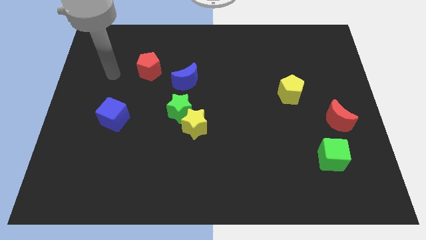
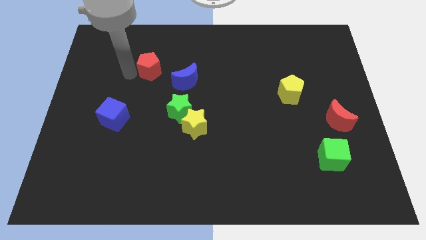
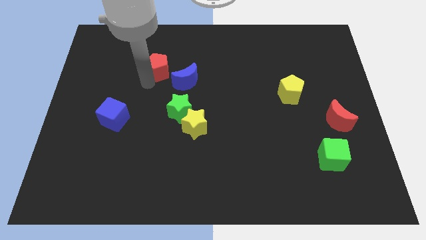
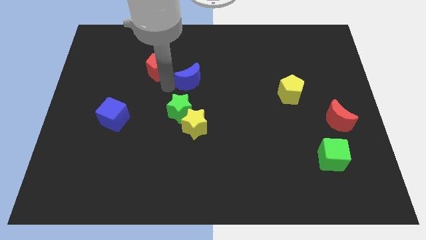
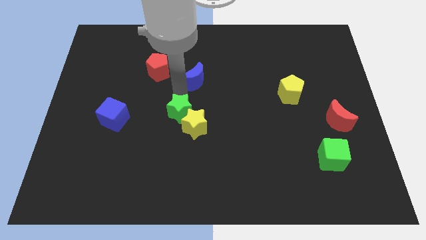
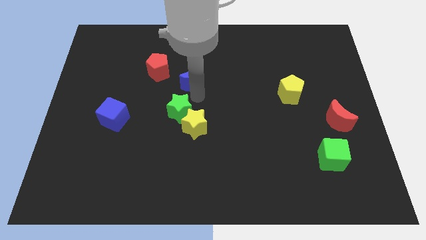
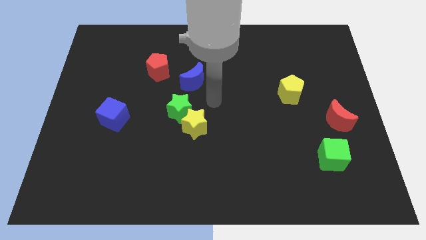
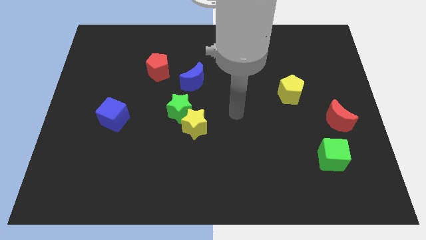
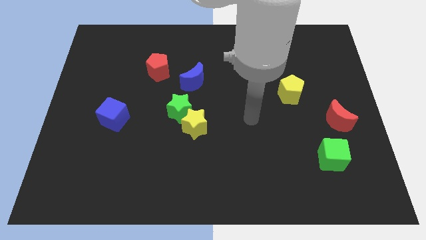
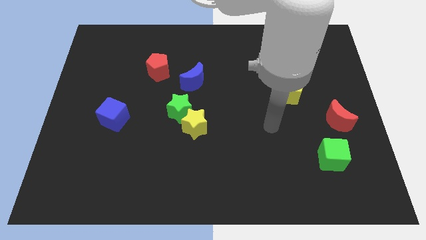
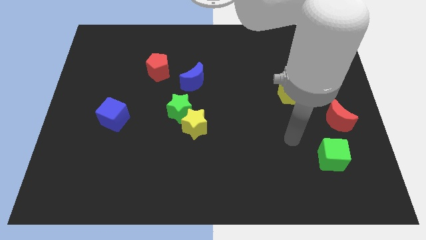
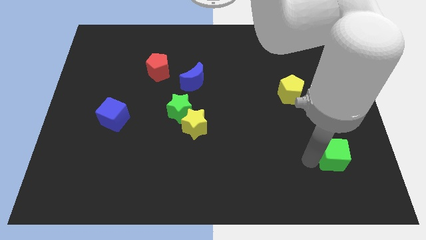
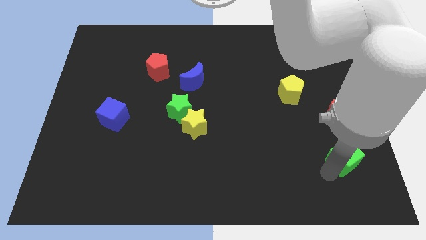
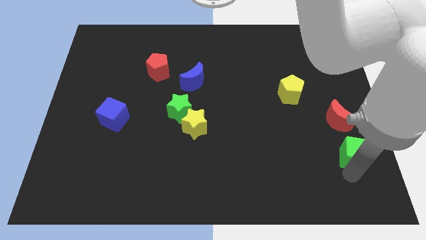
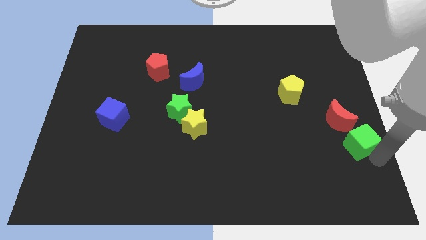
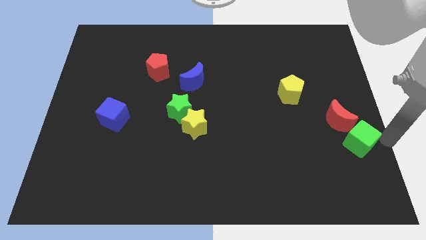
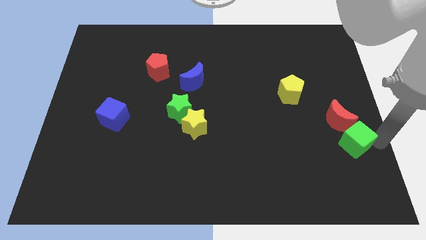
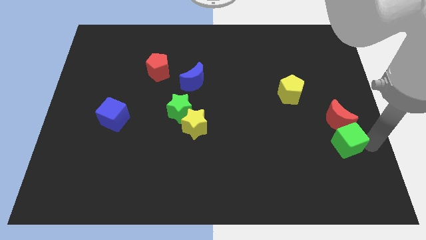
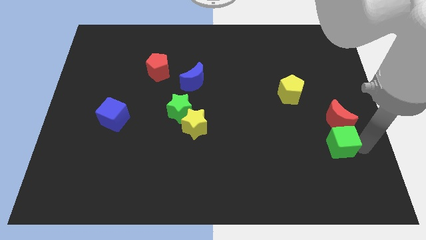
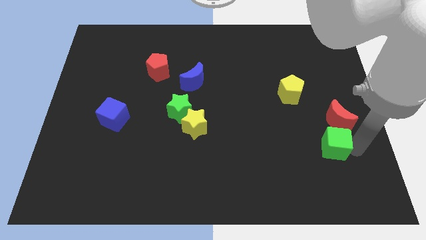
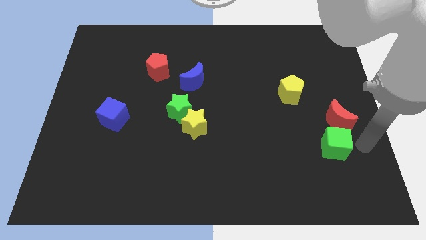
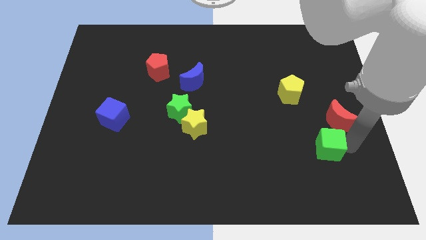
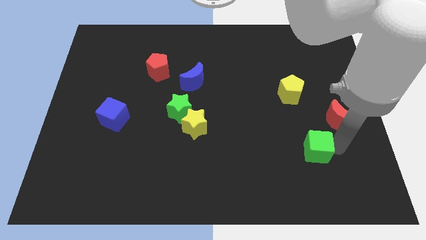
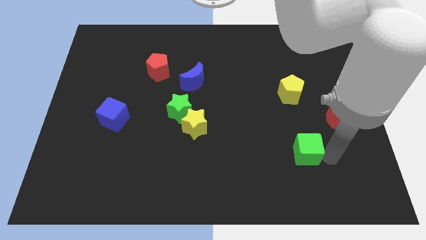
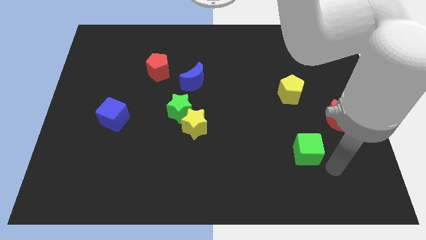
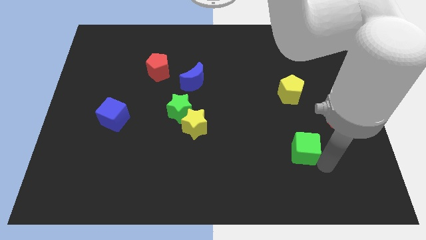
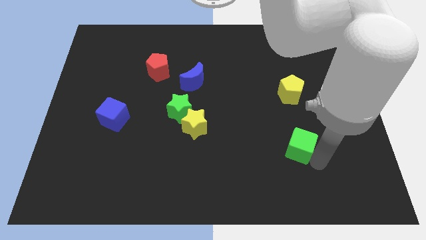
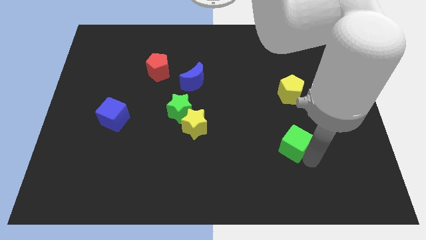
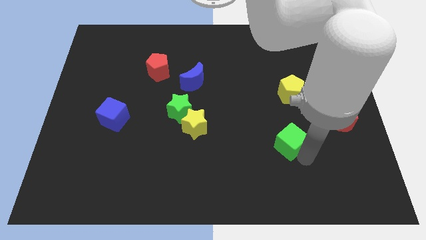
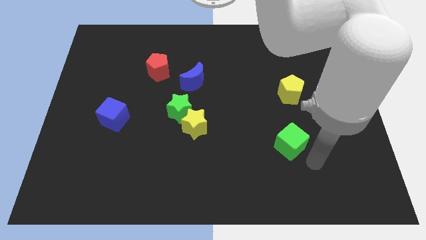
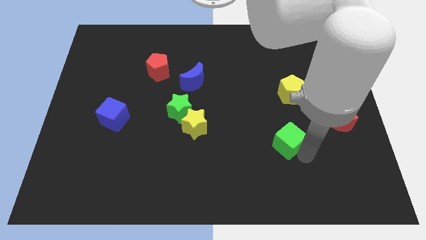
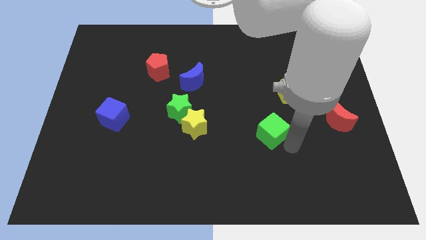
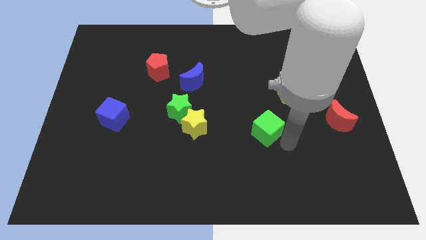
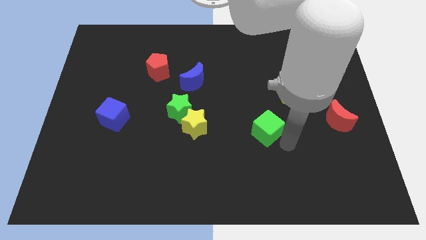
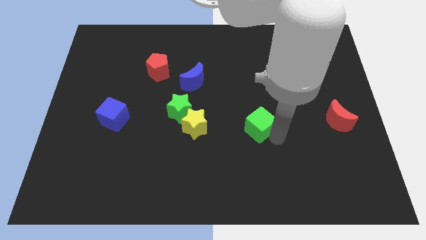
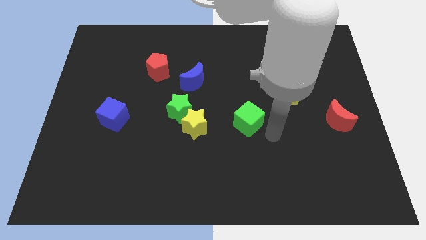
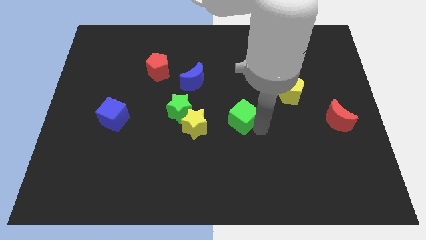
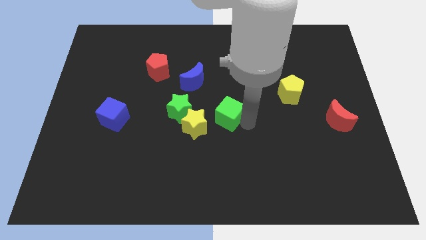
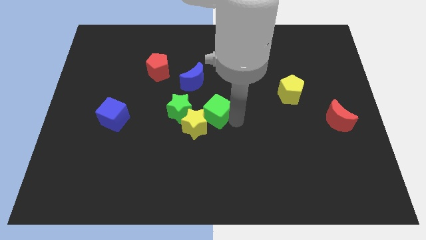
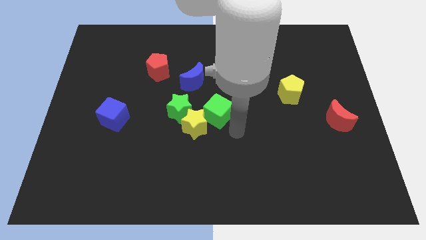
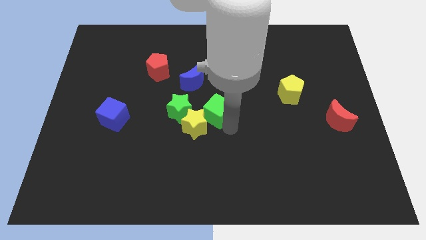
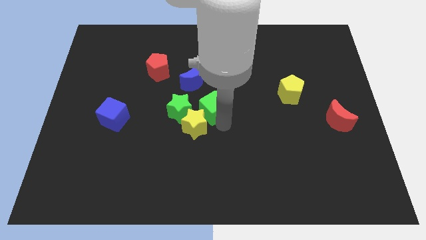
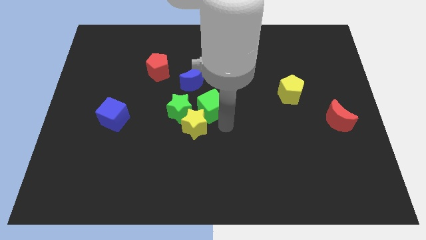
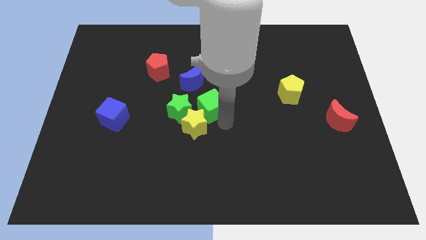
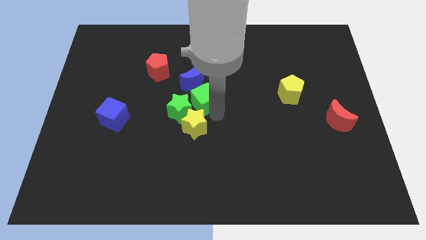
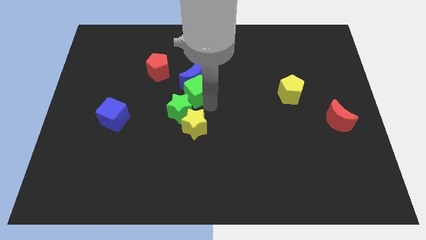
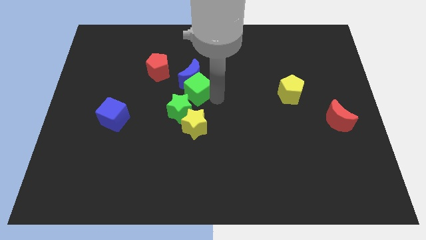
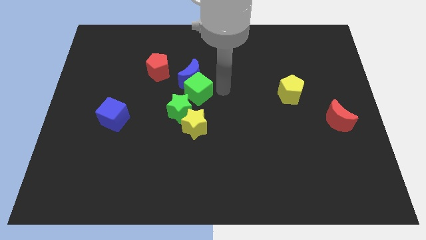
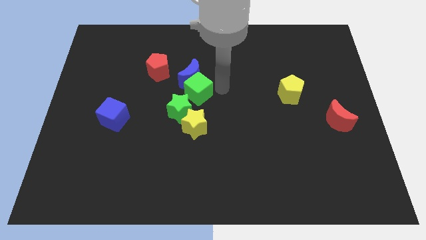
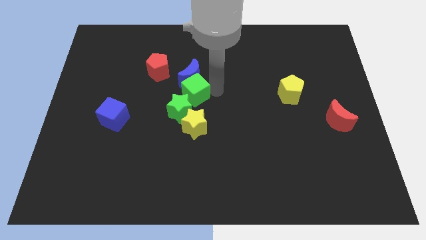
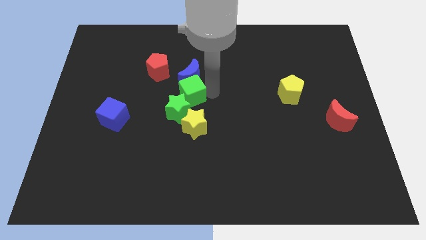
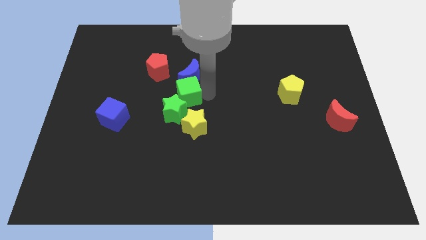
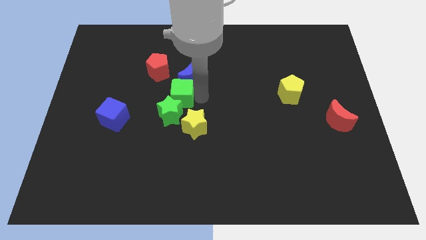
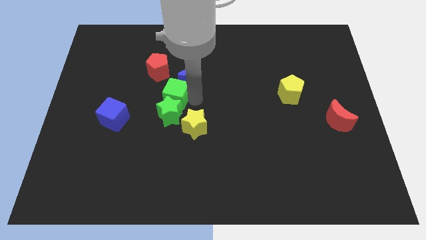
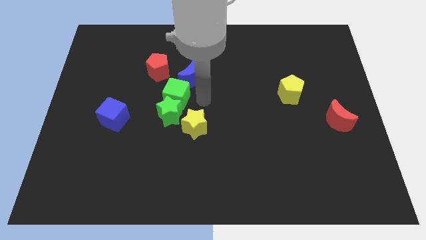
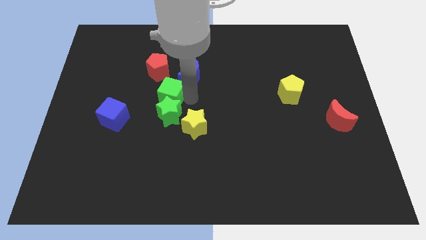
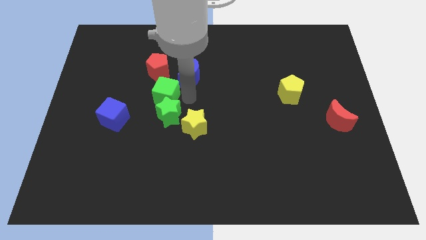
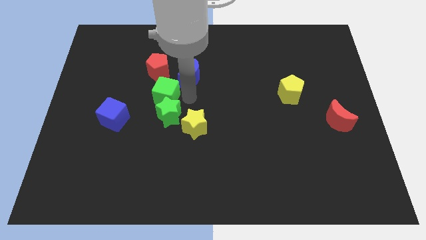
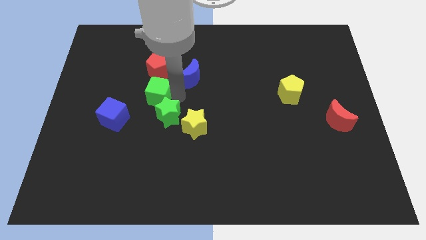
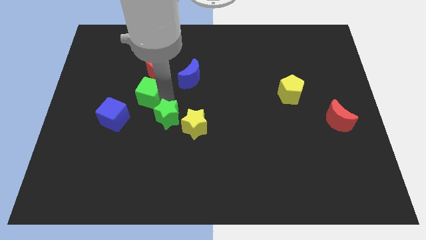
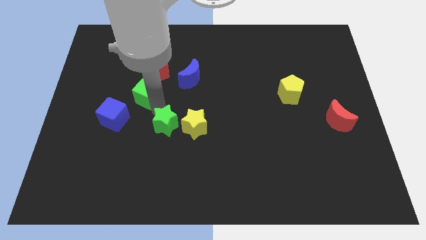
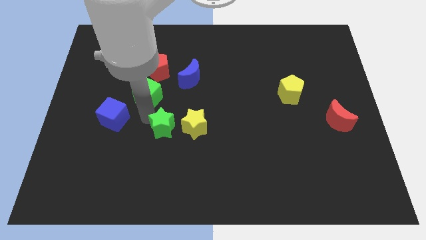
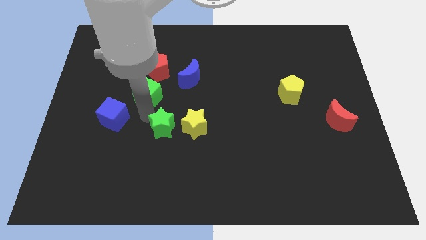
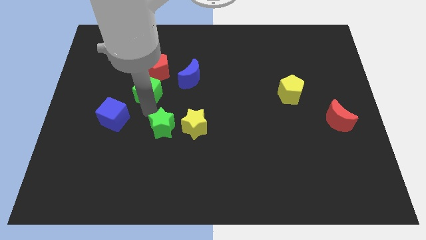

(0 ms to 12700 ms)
slide the green cube just left of the blue moon

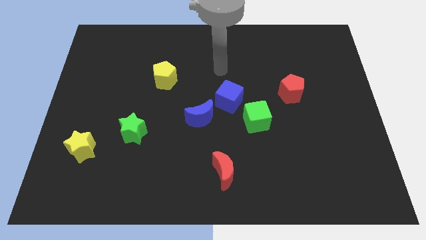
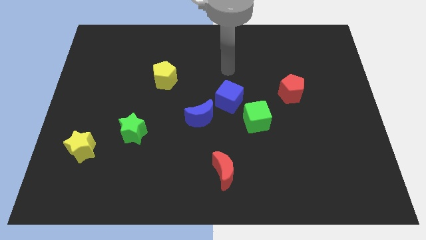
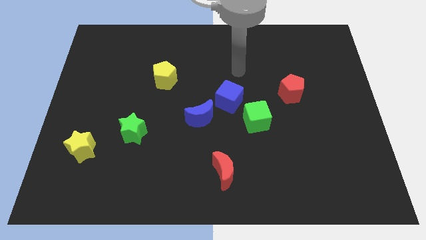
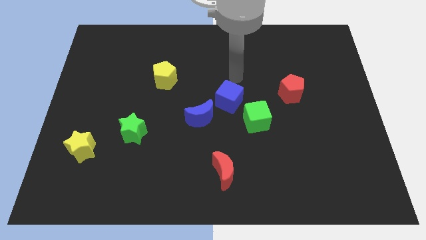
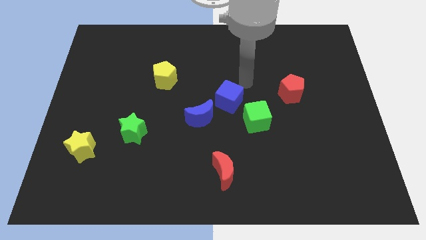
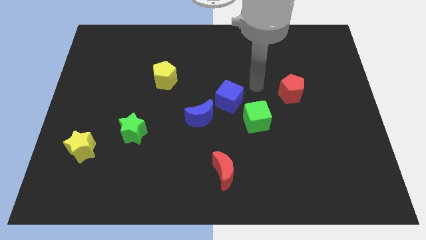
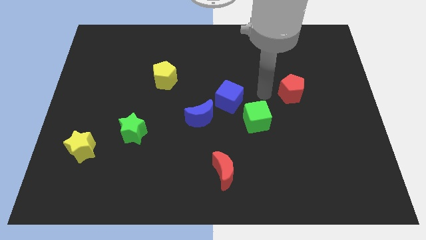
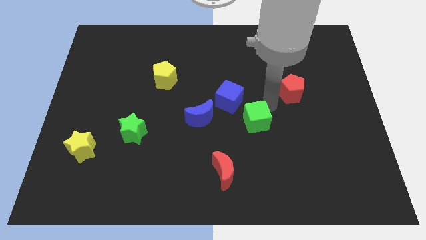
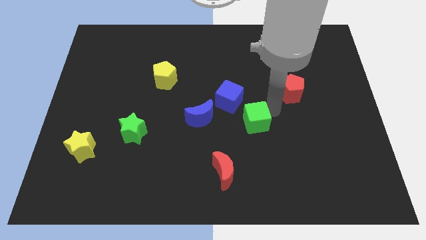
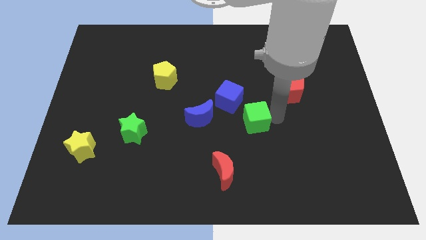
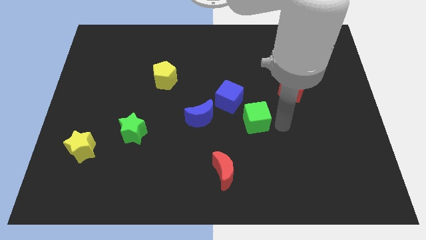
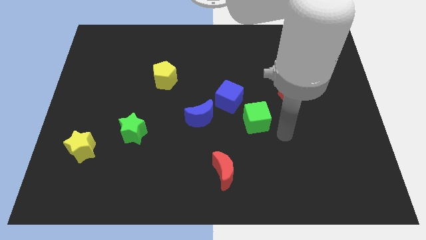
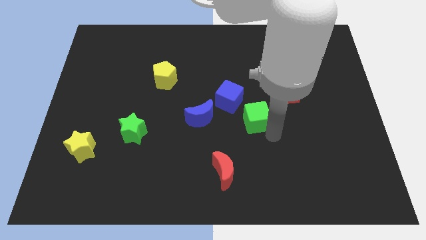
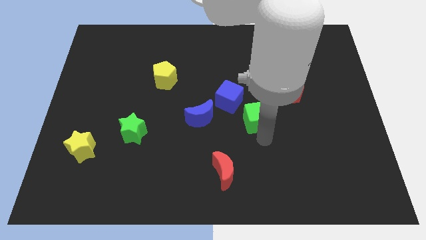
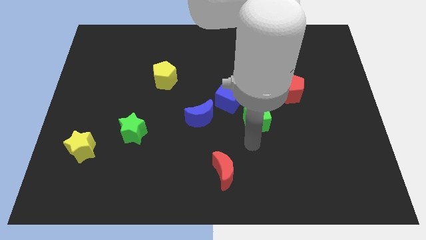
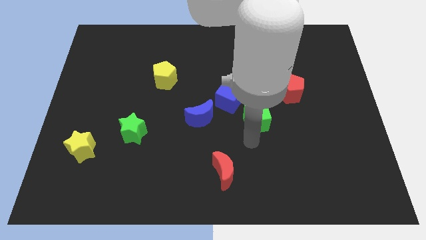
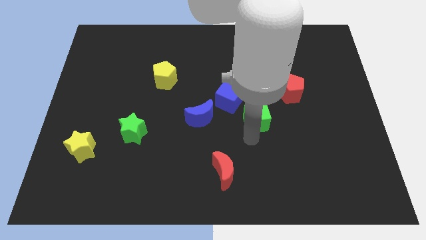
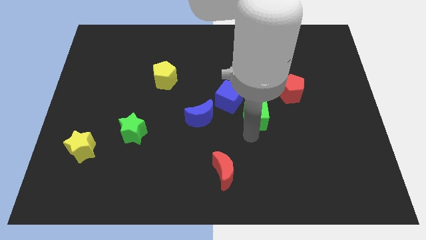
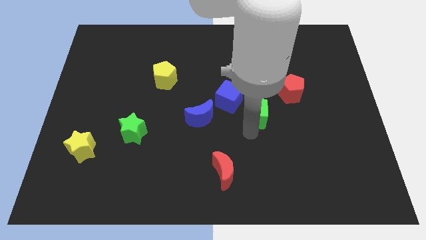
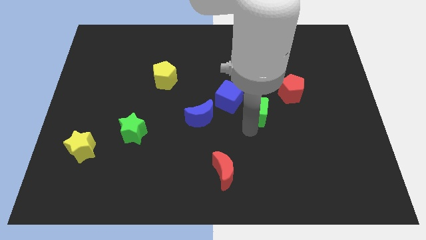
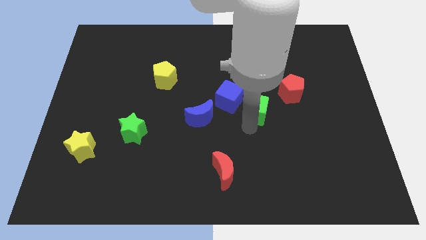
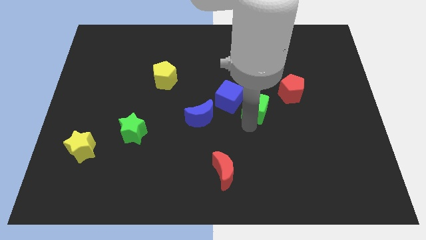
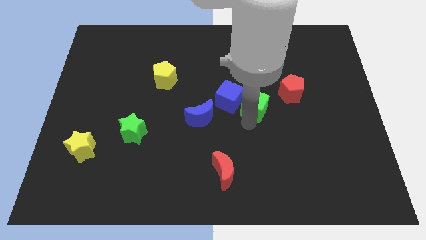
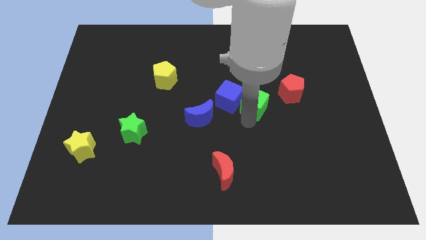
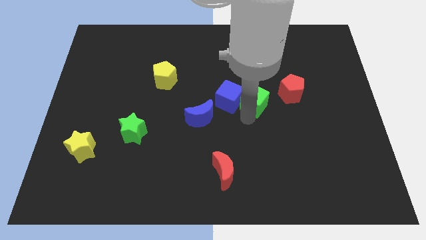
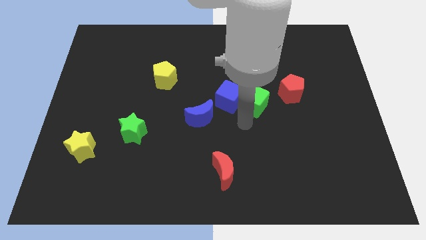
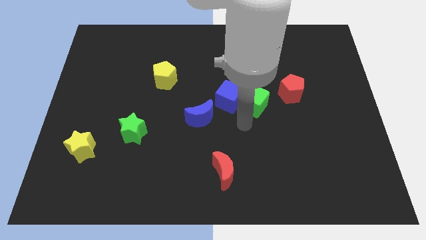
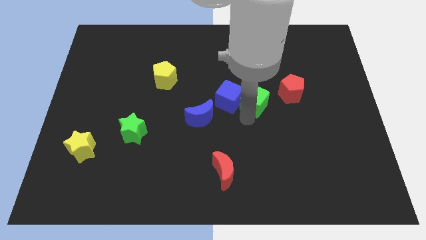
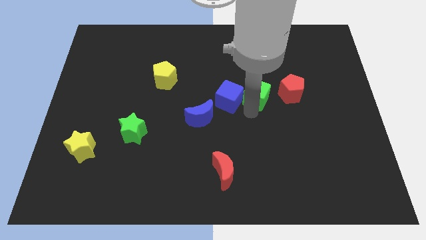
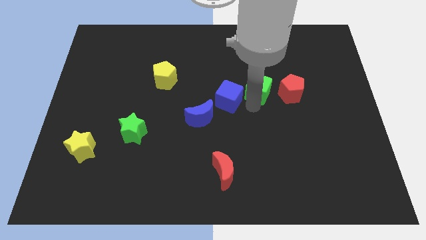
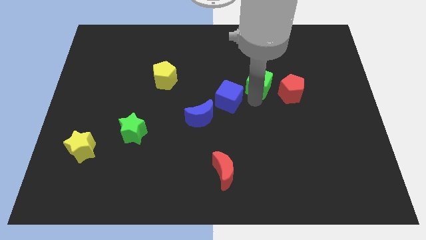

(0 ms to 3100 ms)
put the green cube to the top left of the red pentagon
